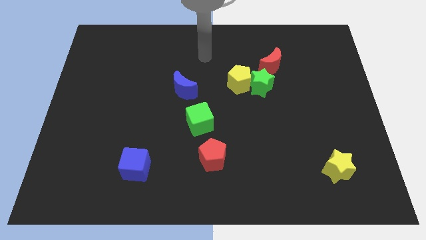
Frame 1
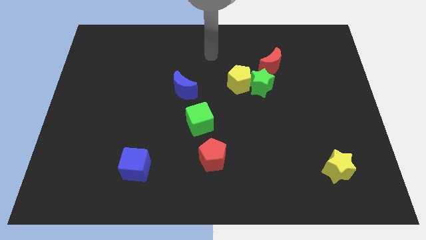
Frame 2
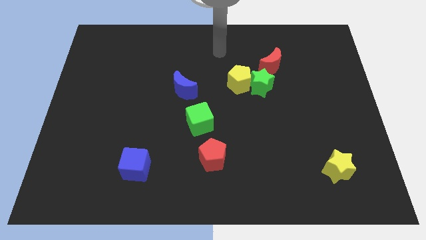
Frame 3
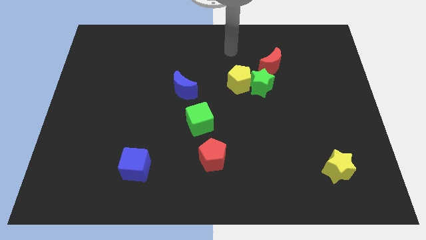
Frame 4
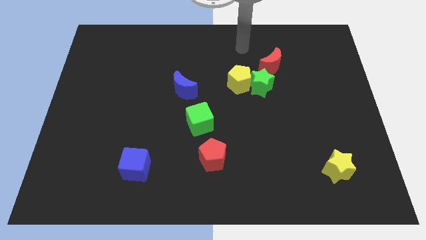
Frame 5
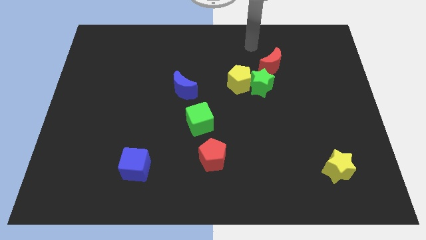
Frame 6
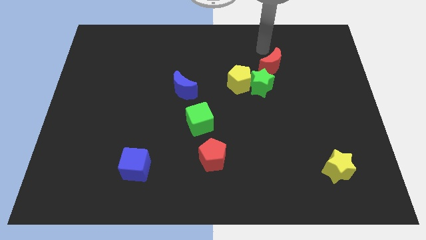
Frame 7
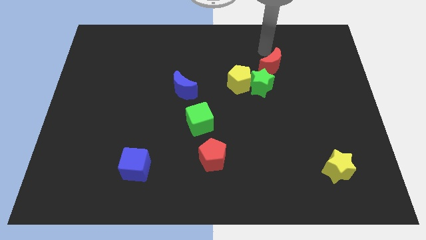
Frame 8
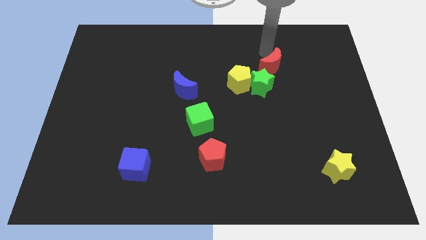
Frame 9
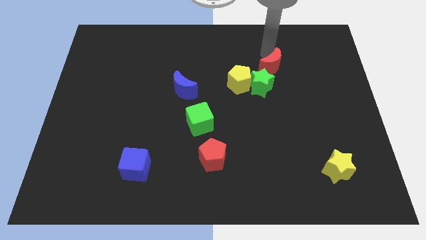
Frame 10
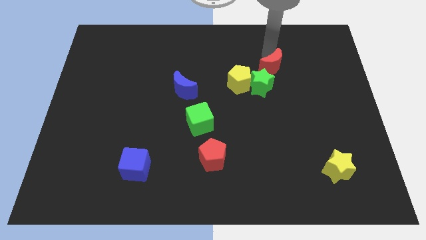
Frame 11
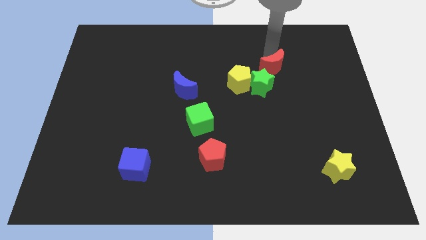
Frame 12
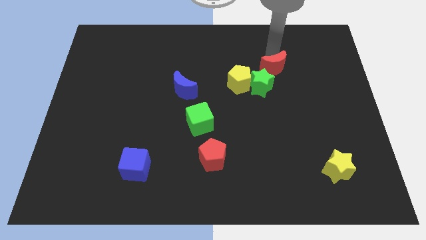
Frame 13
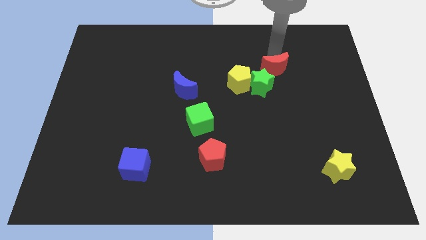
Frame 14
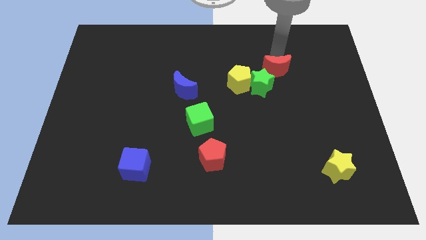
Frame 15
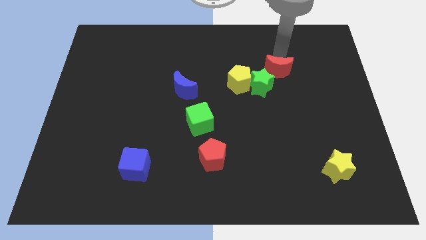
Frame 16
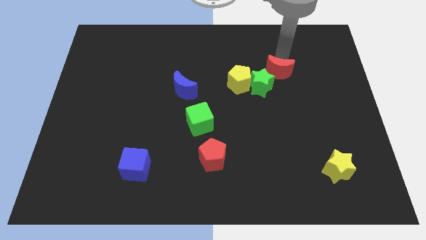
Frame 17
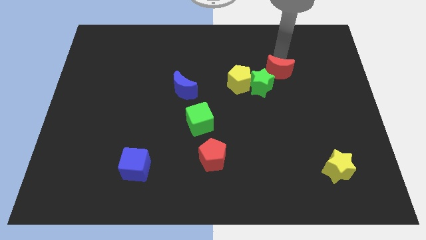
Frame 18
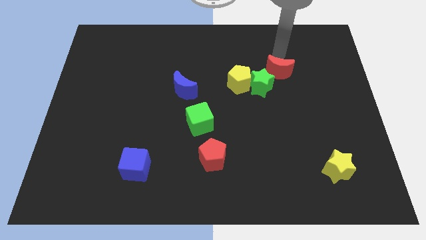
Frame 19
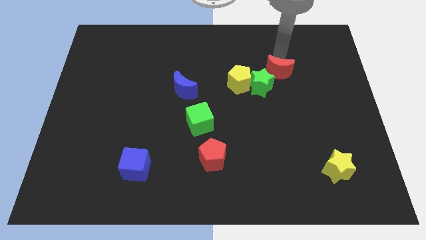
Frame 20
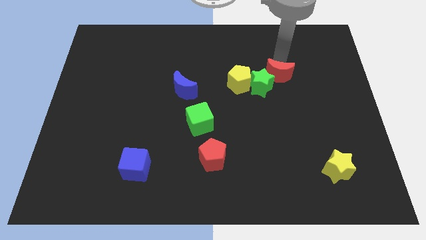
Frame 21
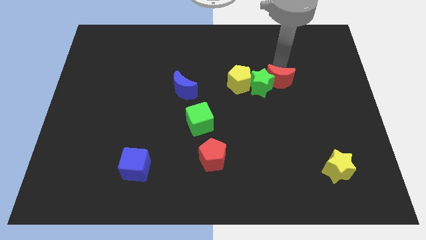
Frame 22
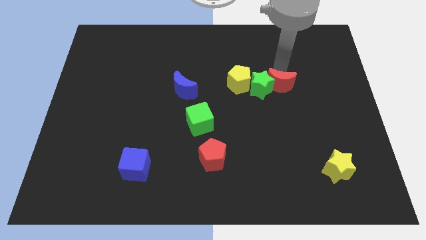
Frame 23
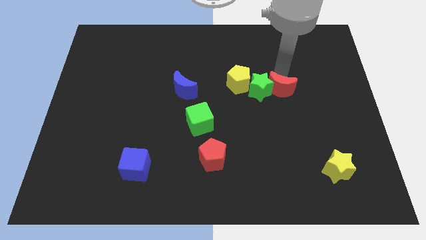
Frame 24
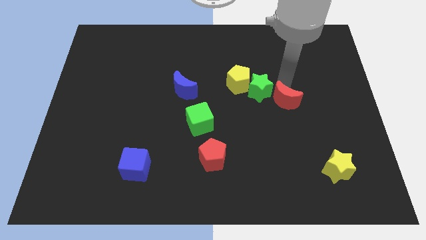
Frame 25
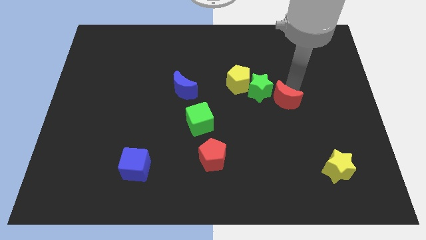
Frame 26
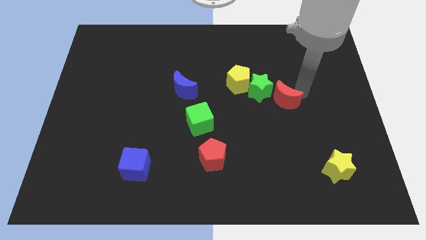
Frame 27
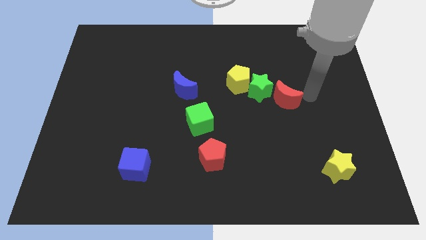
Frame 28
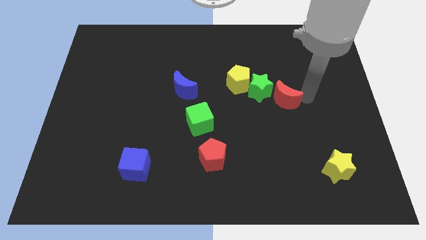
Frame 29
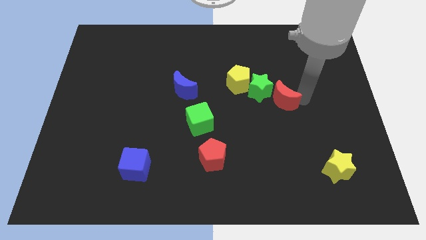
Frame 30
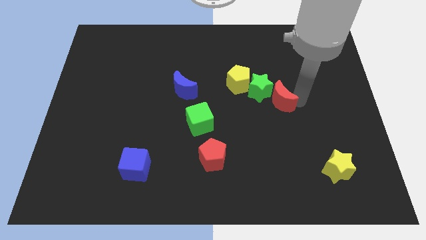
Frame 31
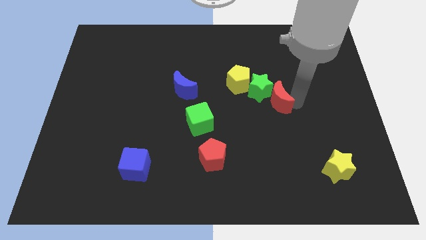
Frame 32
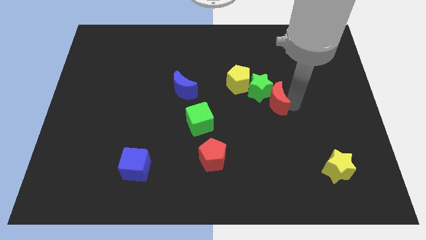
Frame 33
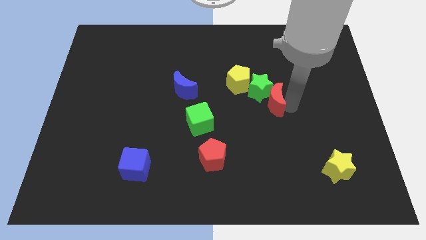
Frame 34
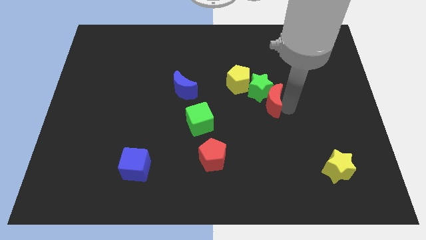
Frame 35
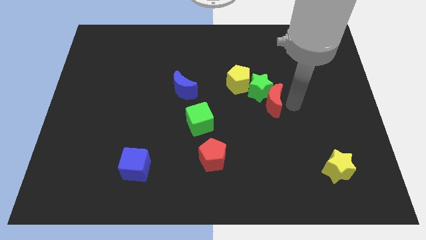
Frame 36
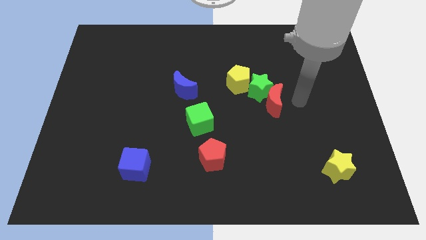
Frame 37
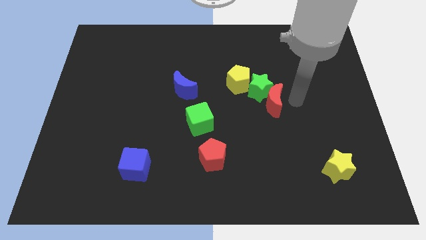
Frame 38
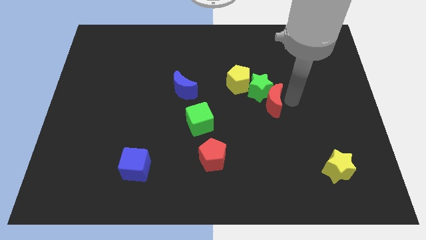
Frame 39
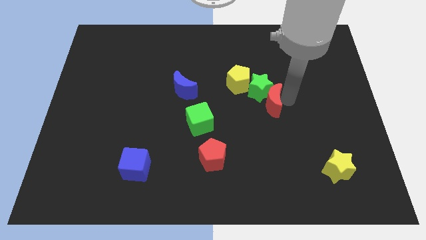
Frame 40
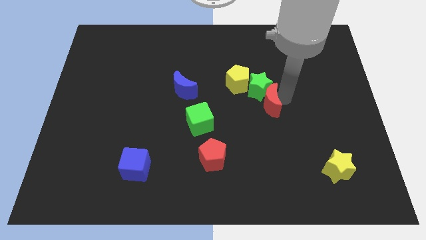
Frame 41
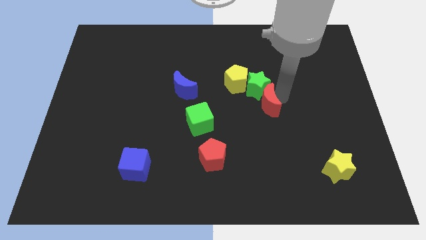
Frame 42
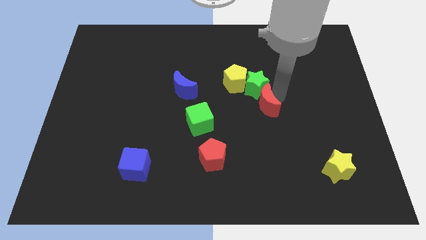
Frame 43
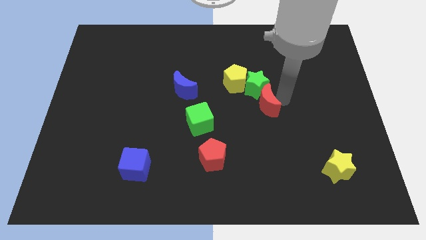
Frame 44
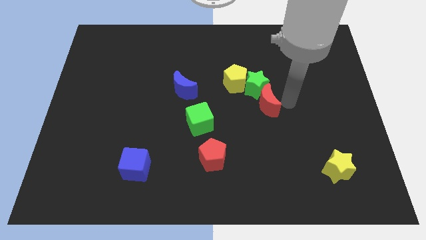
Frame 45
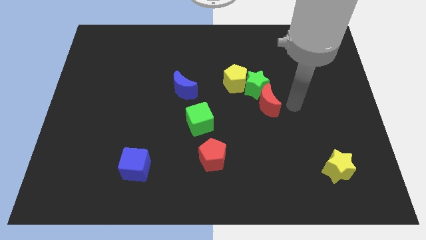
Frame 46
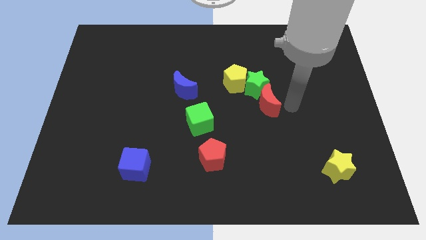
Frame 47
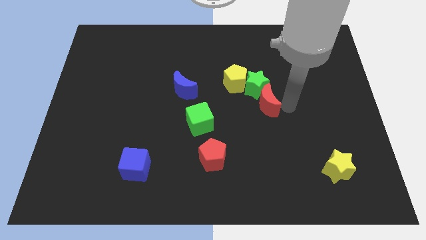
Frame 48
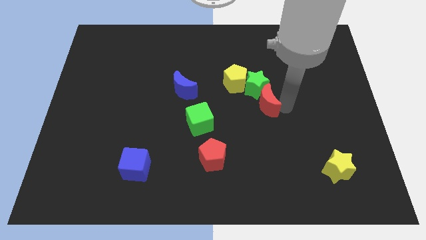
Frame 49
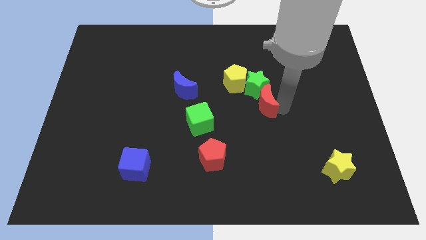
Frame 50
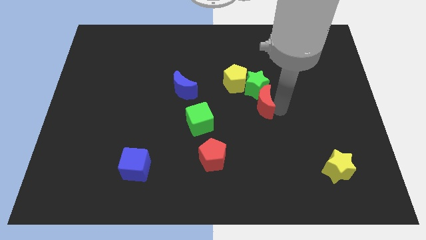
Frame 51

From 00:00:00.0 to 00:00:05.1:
push the red moon to the bottom left side of the green star

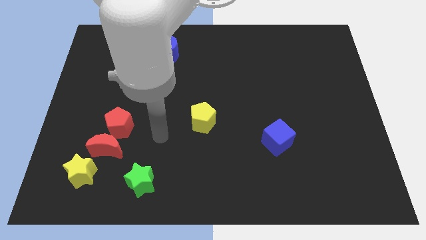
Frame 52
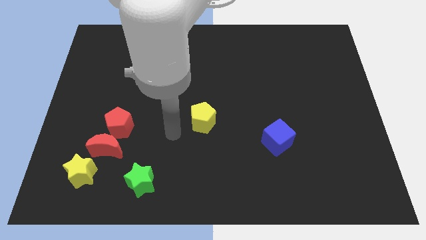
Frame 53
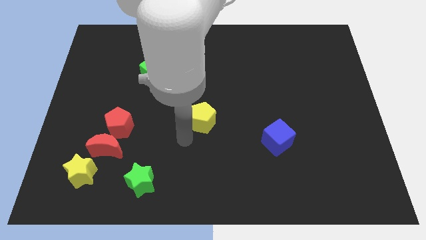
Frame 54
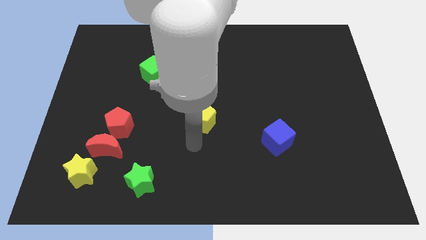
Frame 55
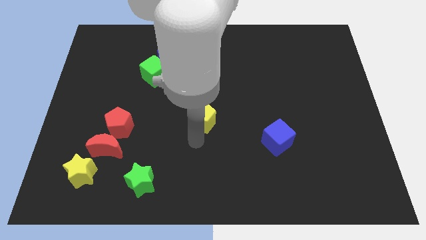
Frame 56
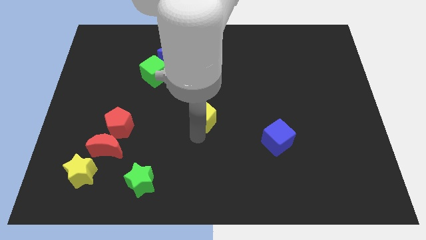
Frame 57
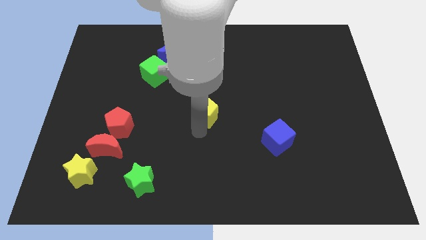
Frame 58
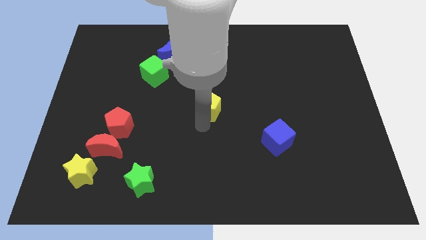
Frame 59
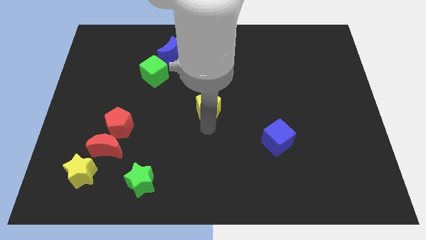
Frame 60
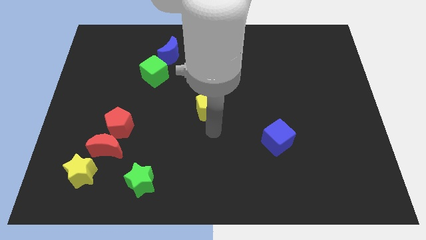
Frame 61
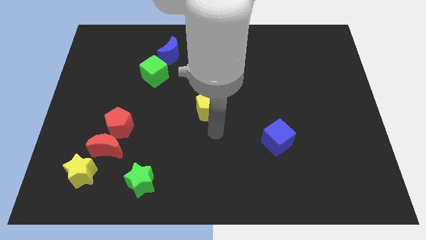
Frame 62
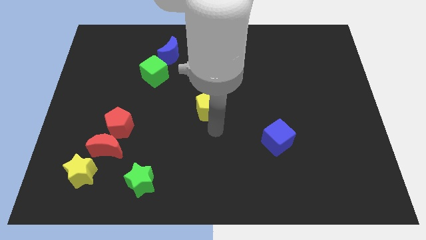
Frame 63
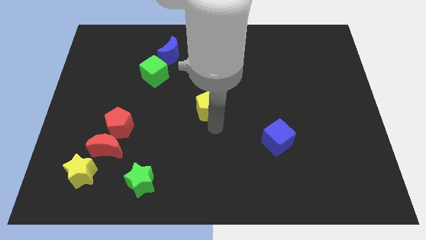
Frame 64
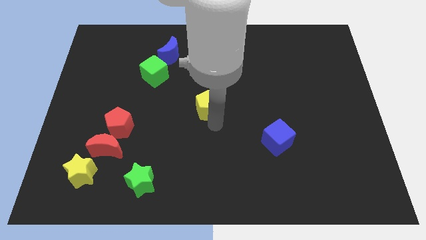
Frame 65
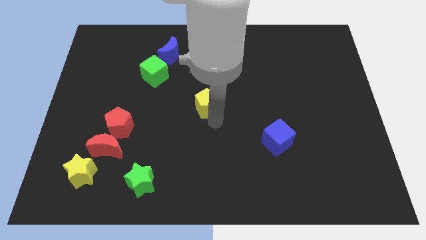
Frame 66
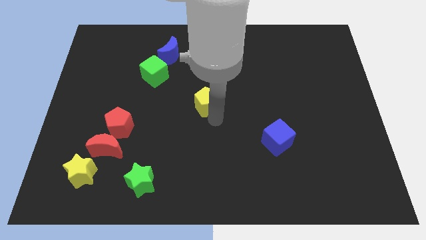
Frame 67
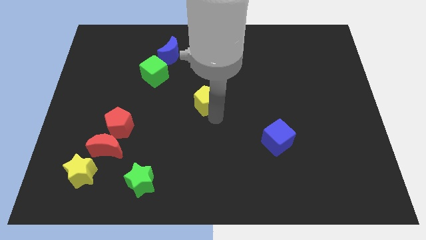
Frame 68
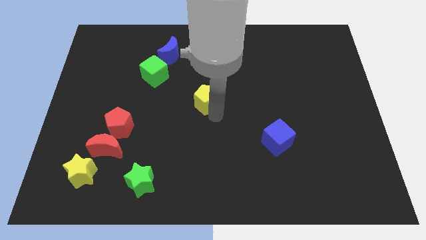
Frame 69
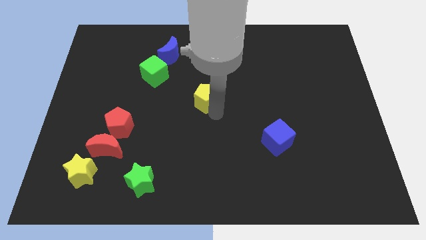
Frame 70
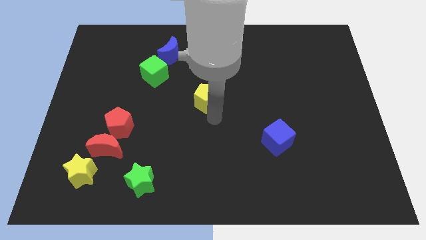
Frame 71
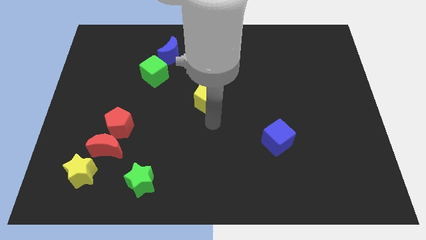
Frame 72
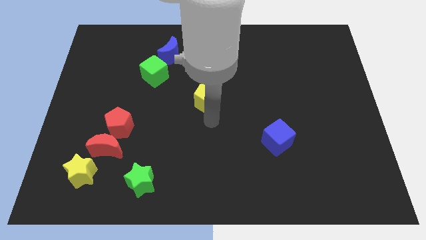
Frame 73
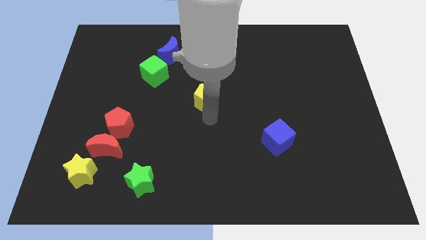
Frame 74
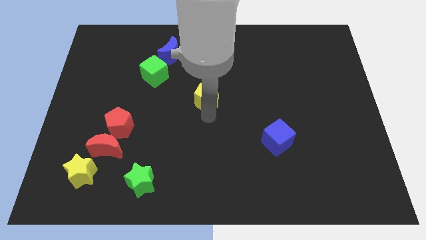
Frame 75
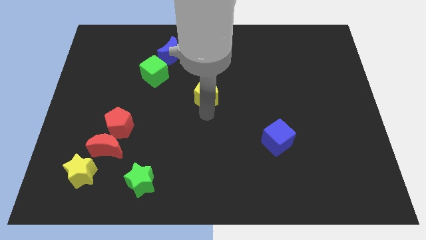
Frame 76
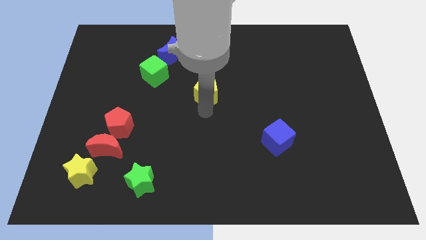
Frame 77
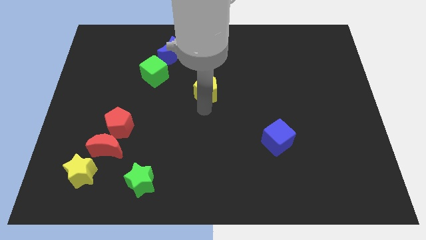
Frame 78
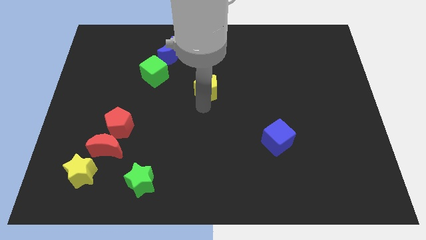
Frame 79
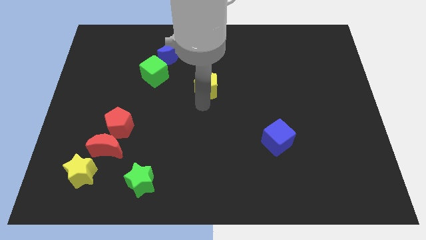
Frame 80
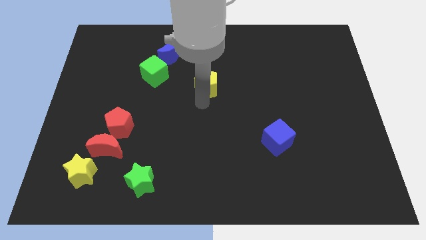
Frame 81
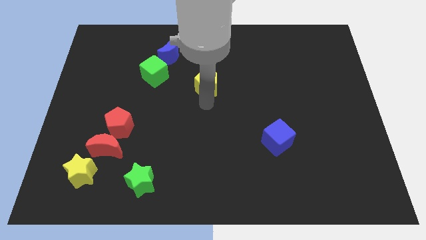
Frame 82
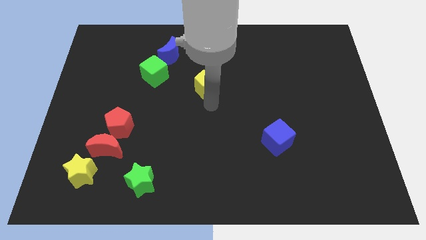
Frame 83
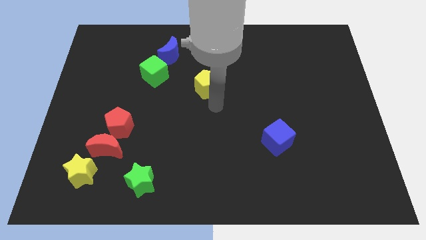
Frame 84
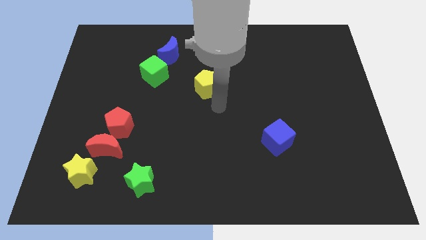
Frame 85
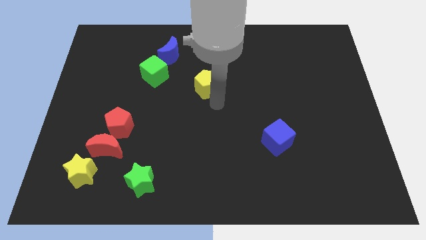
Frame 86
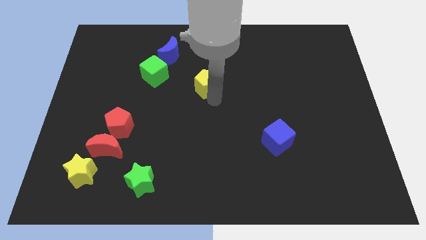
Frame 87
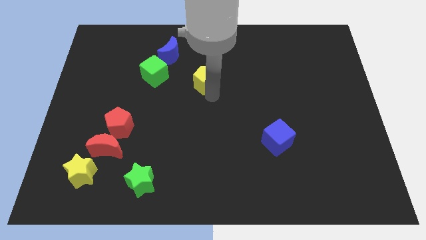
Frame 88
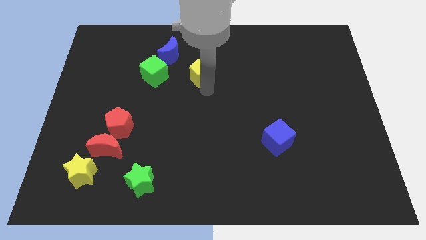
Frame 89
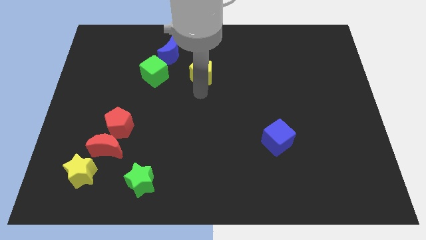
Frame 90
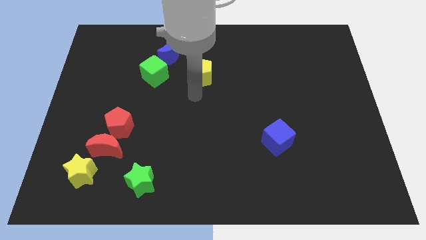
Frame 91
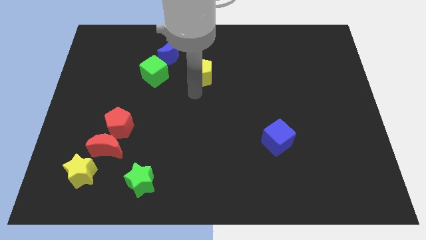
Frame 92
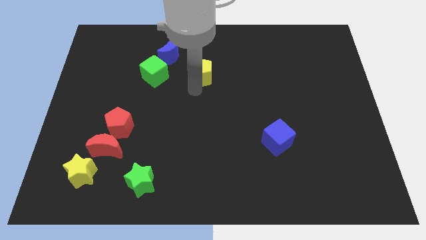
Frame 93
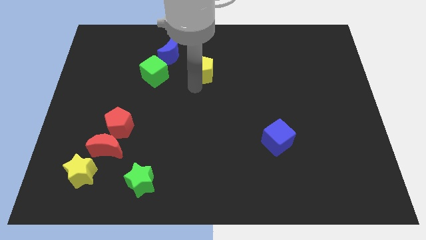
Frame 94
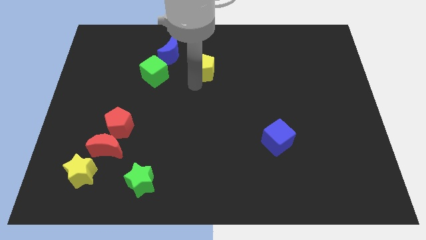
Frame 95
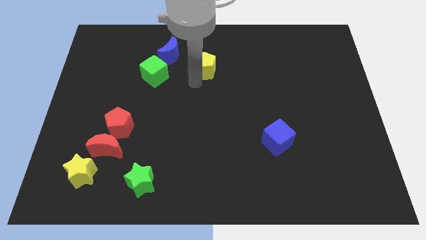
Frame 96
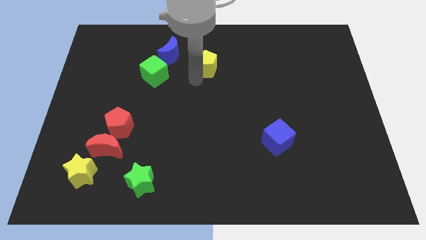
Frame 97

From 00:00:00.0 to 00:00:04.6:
put the yellow pentagon just right of the blue moon
